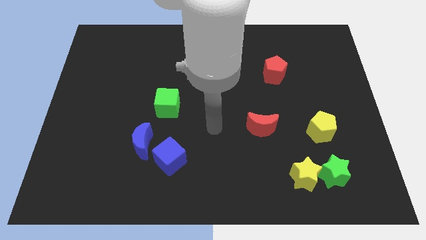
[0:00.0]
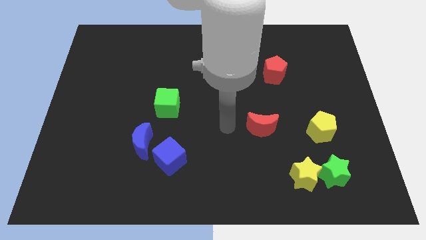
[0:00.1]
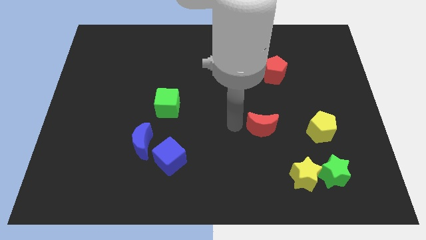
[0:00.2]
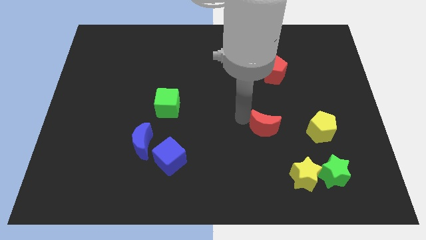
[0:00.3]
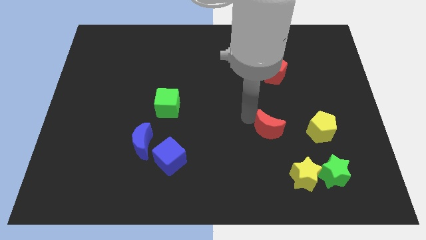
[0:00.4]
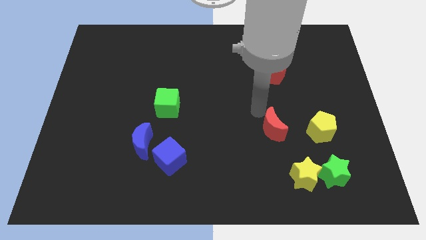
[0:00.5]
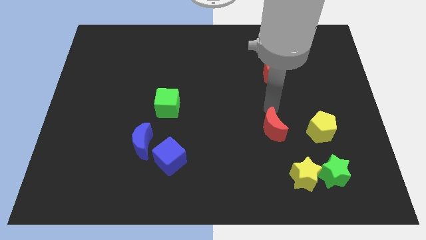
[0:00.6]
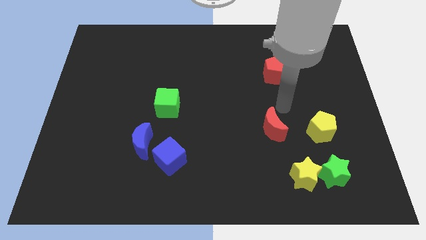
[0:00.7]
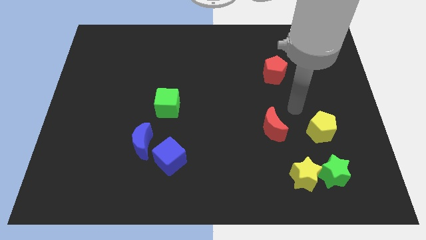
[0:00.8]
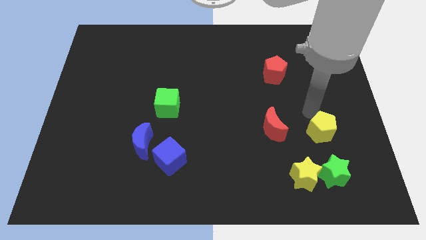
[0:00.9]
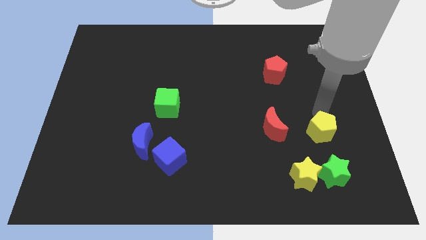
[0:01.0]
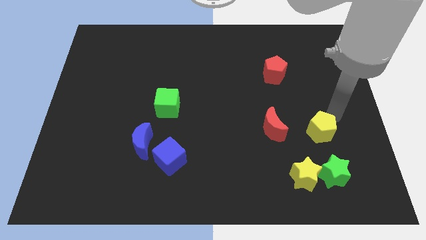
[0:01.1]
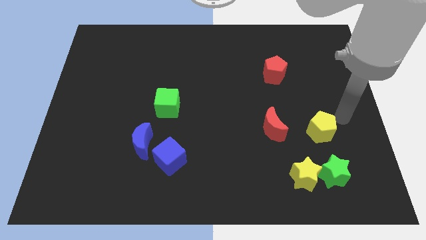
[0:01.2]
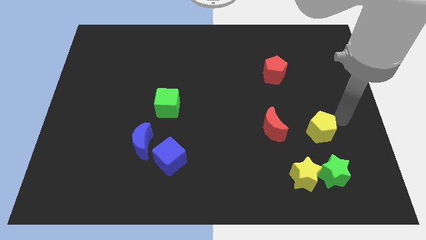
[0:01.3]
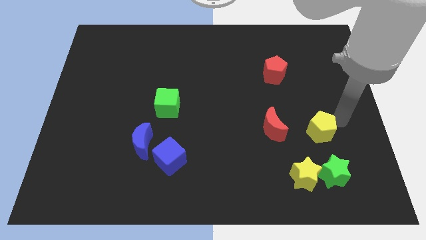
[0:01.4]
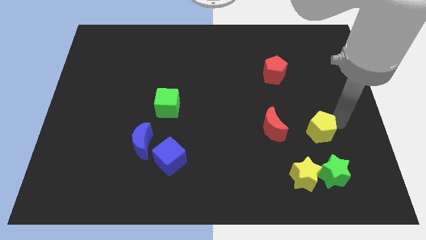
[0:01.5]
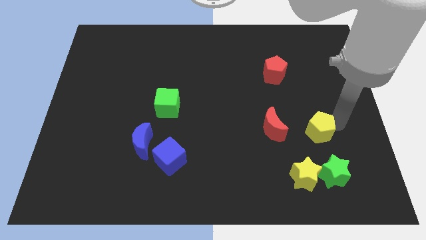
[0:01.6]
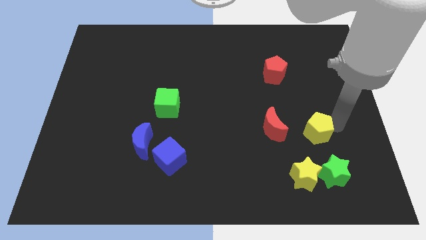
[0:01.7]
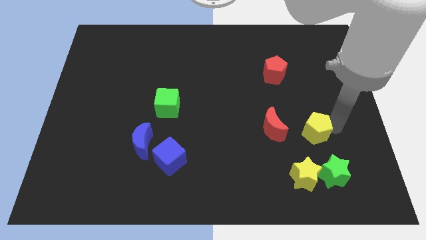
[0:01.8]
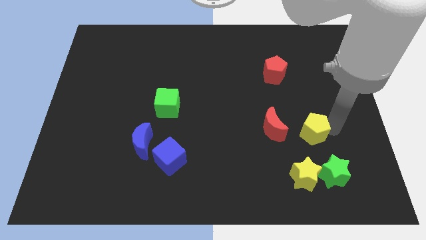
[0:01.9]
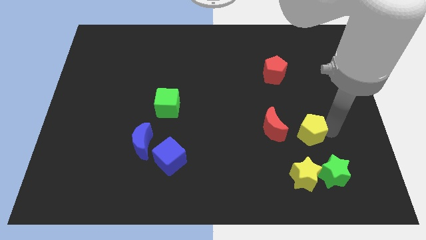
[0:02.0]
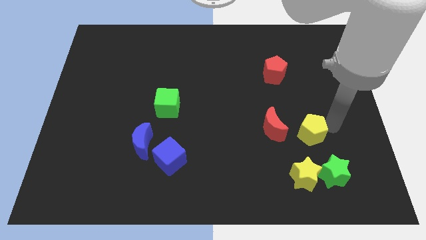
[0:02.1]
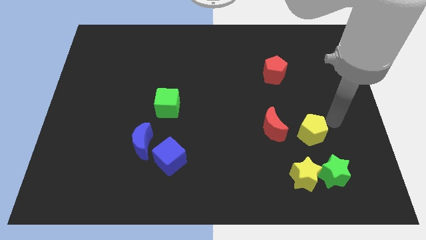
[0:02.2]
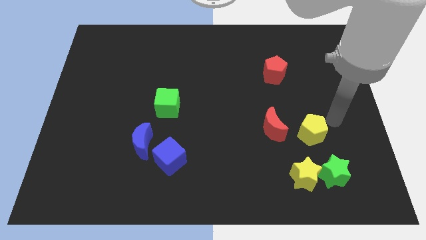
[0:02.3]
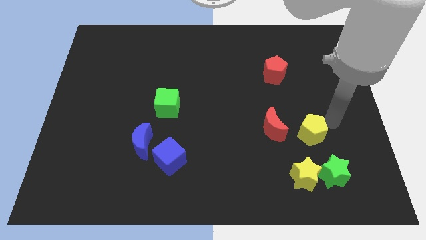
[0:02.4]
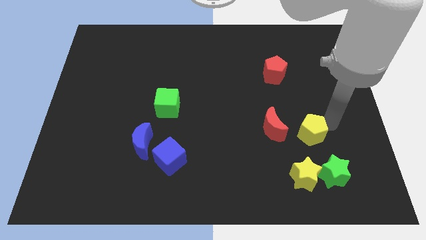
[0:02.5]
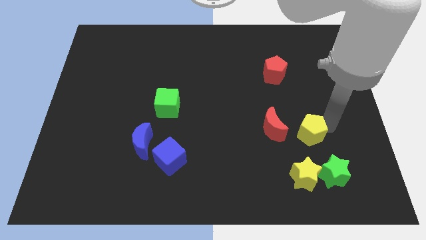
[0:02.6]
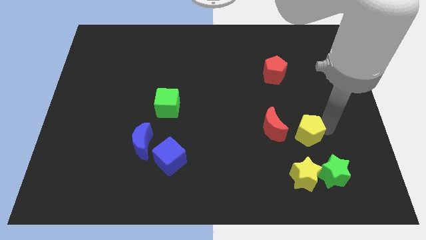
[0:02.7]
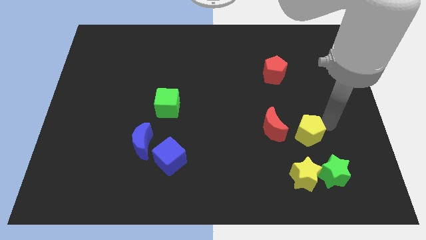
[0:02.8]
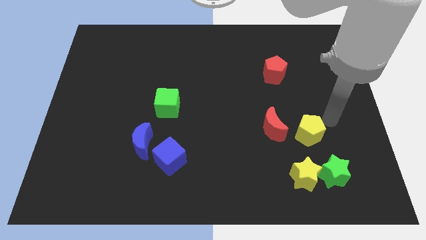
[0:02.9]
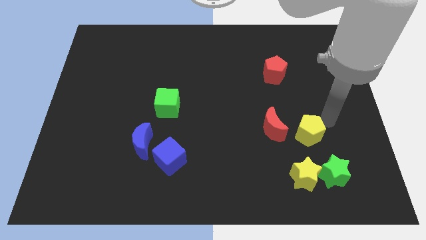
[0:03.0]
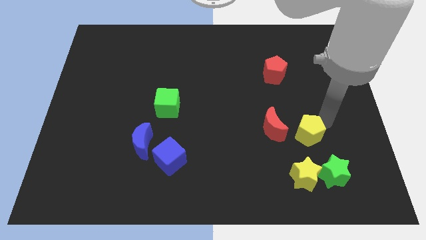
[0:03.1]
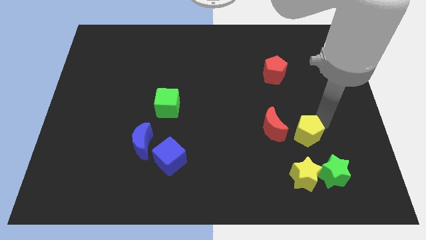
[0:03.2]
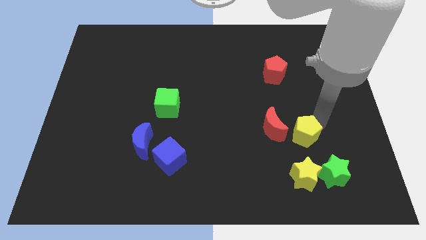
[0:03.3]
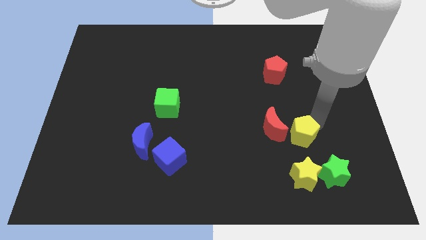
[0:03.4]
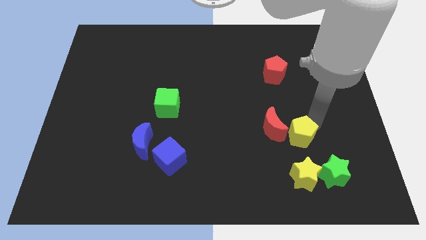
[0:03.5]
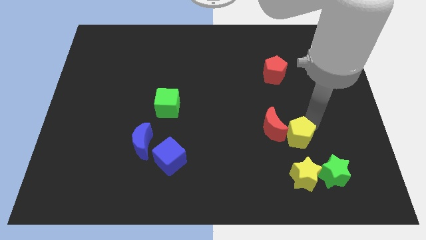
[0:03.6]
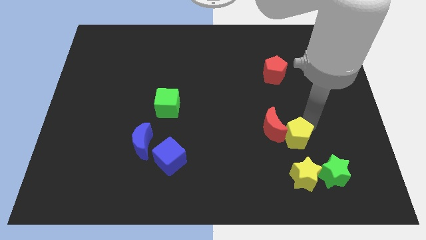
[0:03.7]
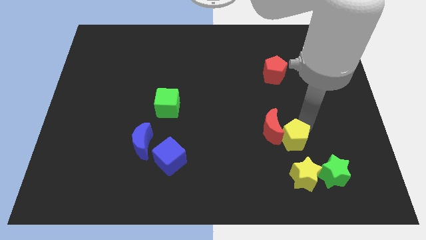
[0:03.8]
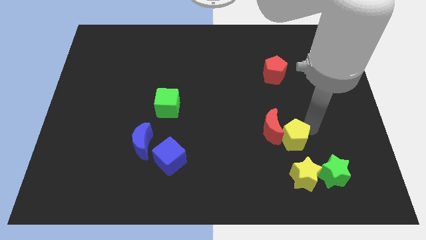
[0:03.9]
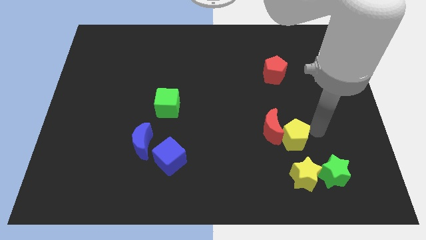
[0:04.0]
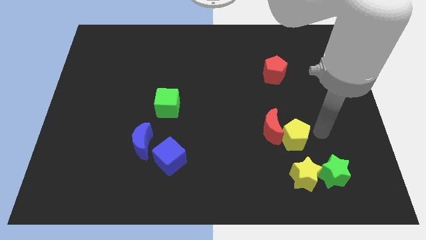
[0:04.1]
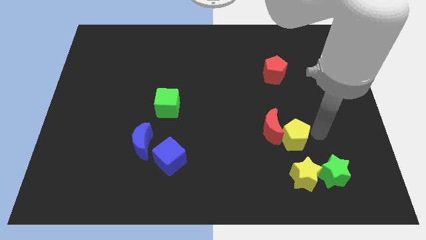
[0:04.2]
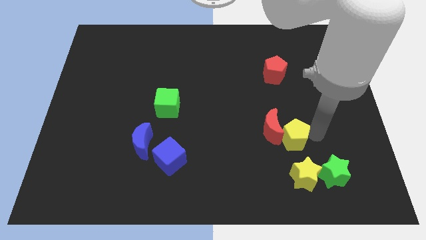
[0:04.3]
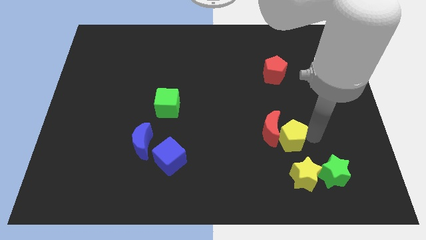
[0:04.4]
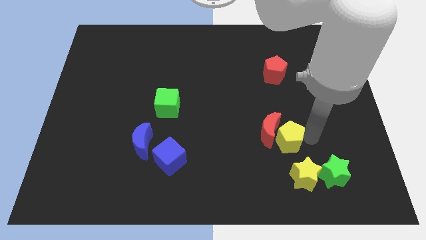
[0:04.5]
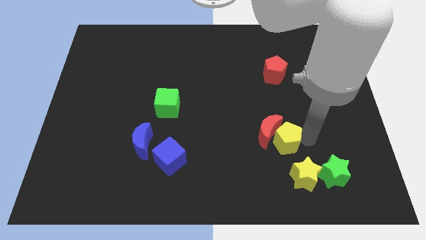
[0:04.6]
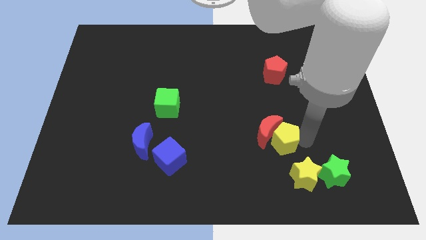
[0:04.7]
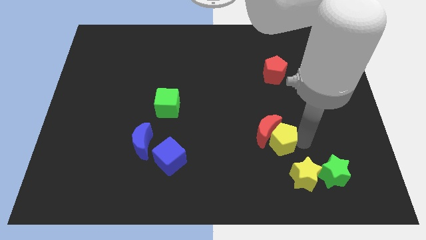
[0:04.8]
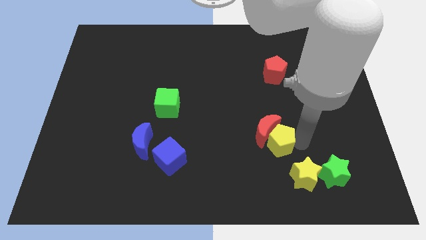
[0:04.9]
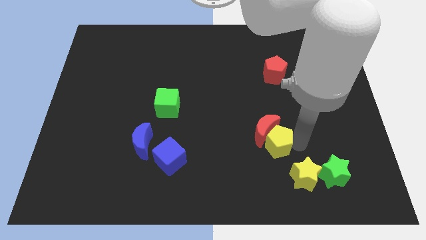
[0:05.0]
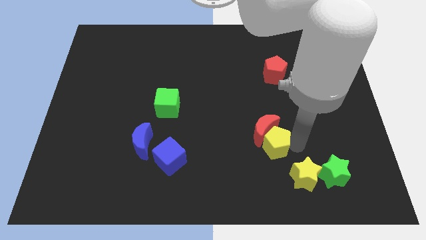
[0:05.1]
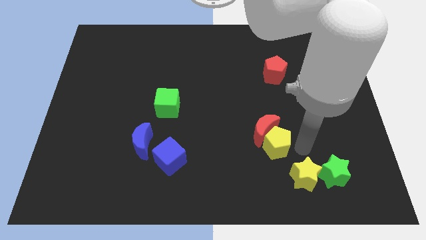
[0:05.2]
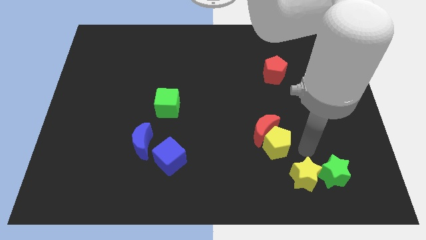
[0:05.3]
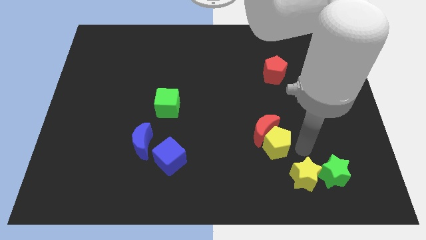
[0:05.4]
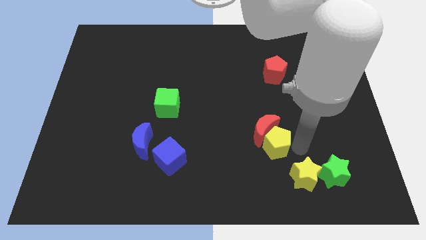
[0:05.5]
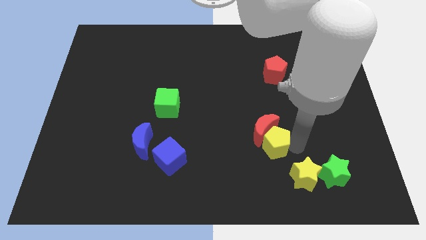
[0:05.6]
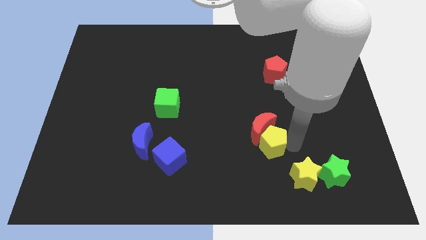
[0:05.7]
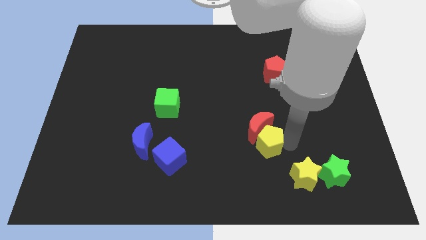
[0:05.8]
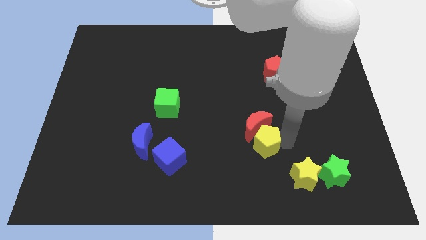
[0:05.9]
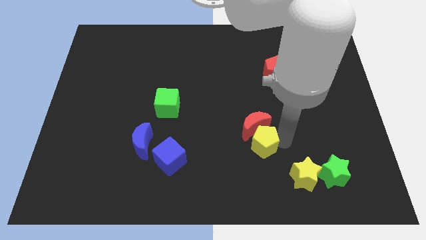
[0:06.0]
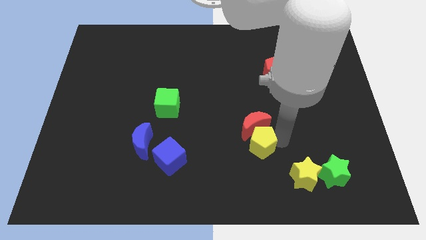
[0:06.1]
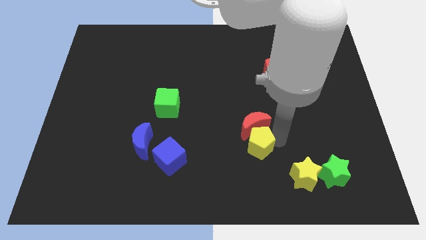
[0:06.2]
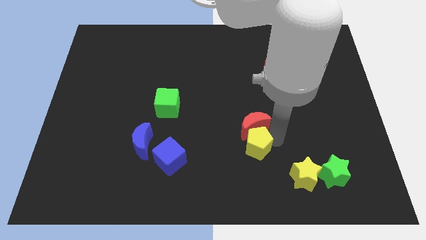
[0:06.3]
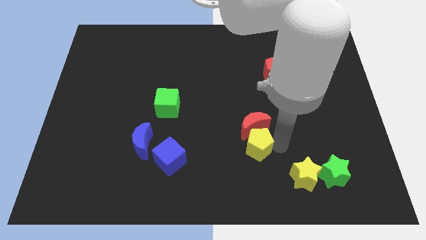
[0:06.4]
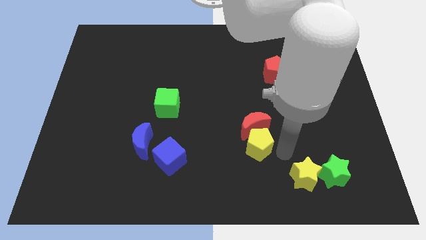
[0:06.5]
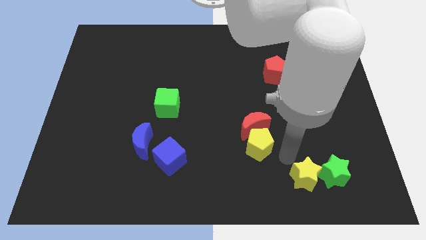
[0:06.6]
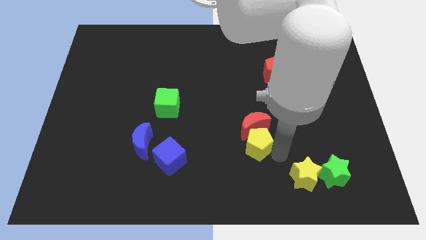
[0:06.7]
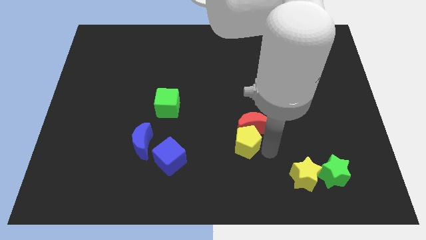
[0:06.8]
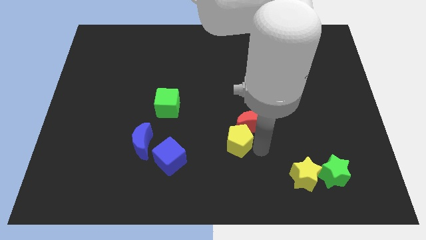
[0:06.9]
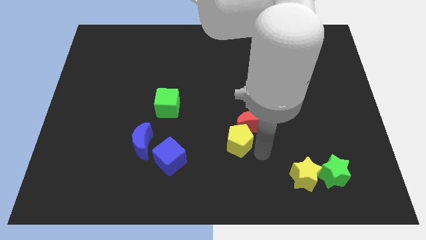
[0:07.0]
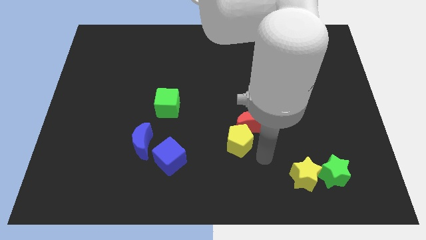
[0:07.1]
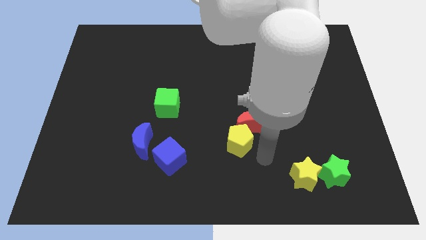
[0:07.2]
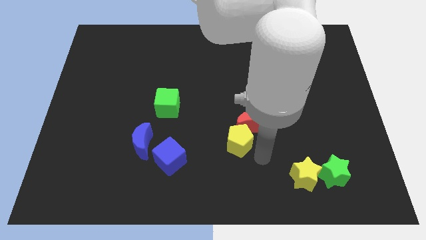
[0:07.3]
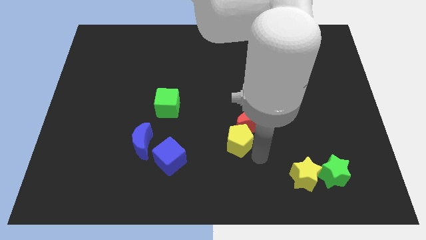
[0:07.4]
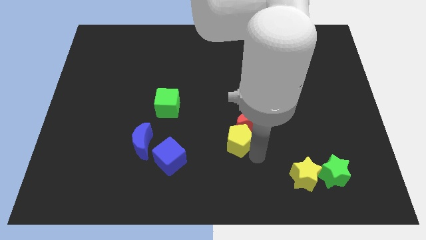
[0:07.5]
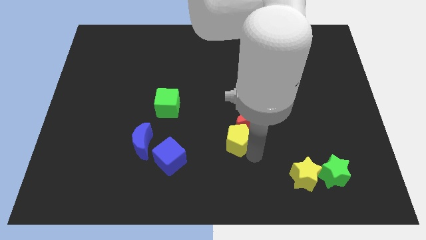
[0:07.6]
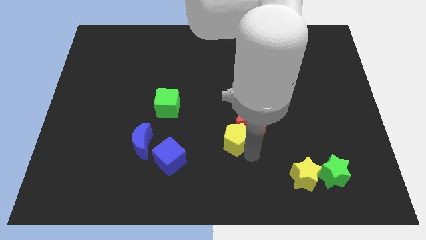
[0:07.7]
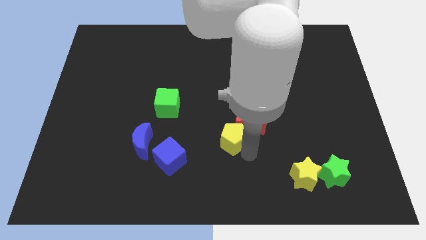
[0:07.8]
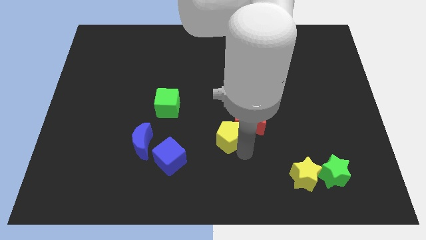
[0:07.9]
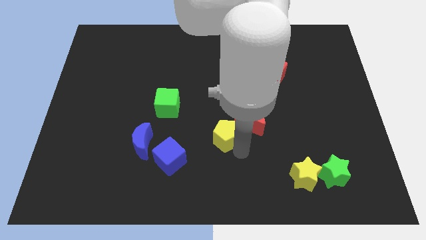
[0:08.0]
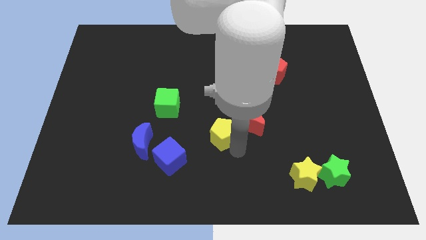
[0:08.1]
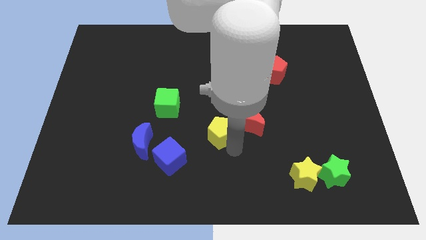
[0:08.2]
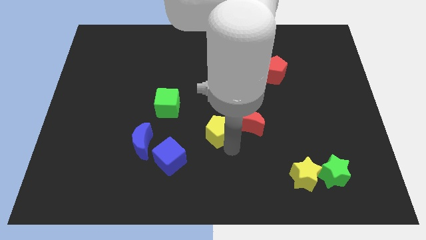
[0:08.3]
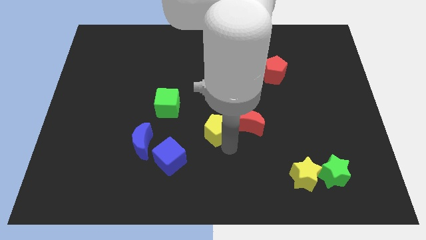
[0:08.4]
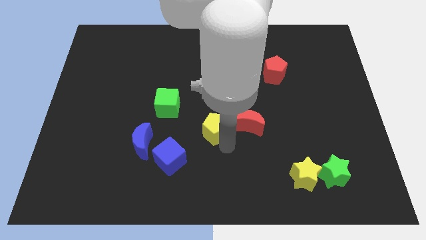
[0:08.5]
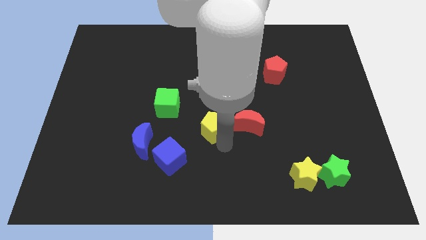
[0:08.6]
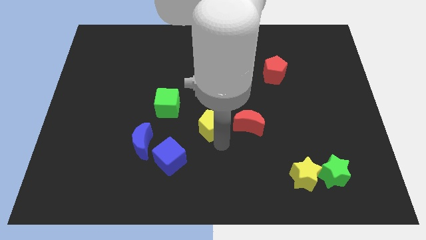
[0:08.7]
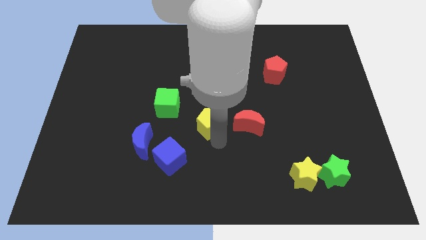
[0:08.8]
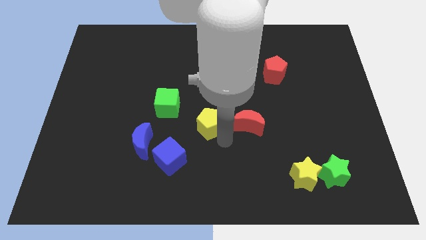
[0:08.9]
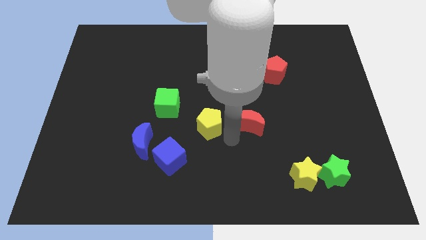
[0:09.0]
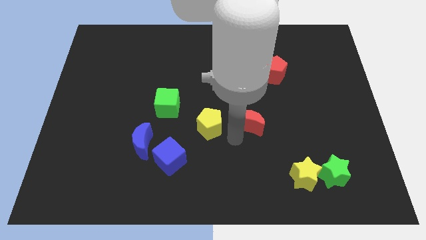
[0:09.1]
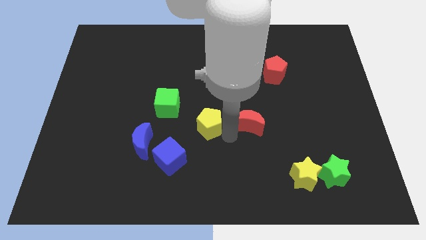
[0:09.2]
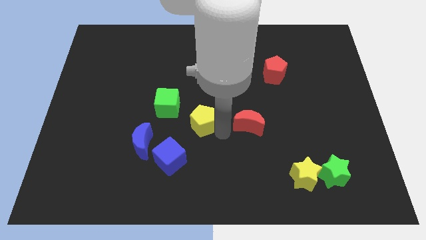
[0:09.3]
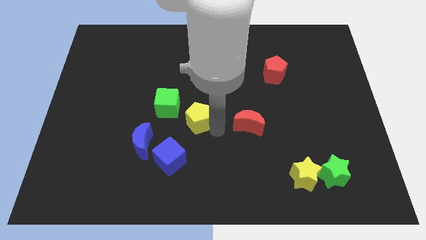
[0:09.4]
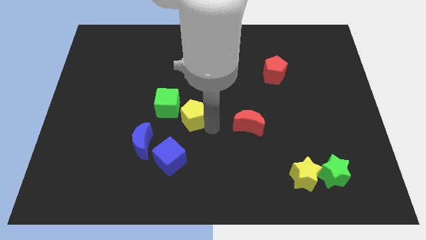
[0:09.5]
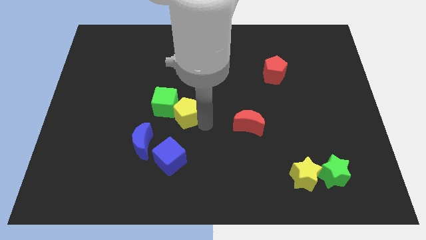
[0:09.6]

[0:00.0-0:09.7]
slide the yellow pentagon close to the green cube
